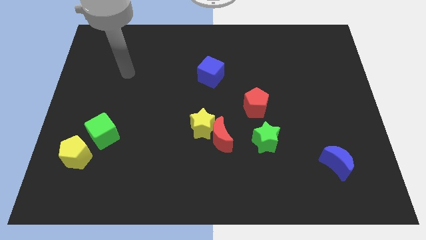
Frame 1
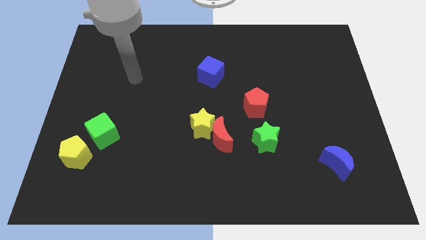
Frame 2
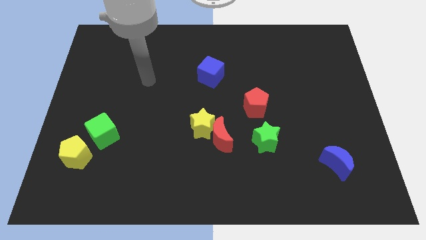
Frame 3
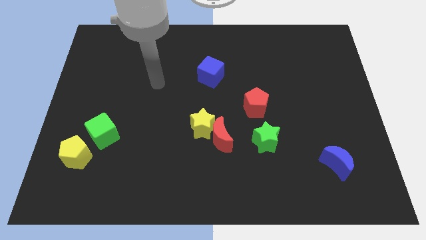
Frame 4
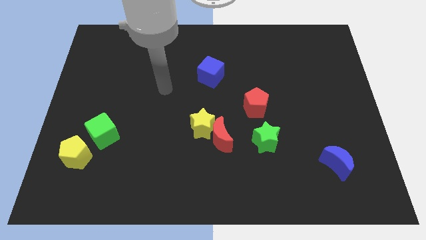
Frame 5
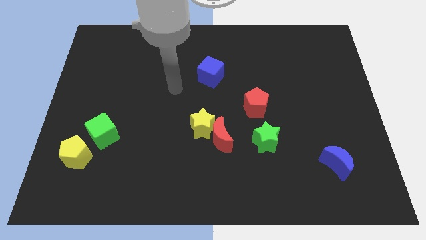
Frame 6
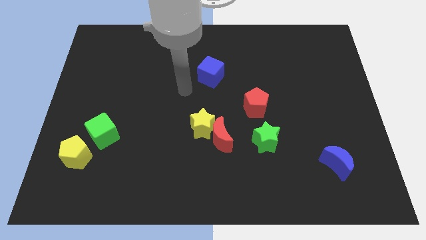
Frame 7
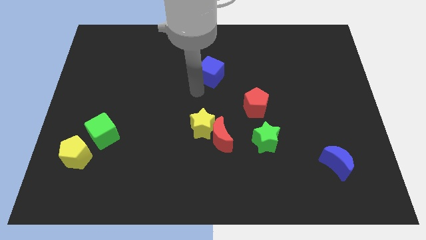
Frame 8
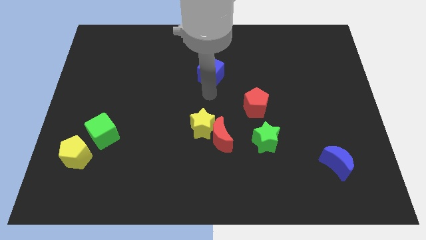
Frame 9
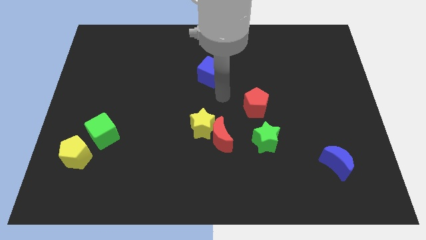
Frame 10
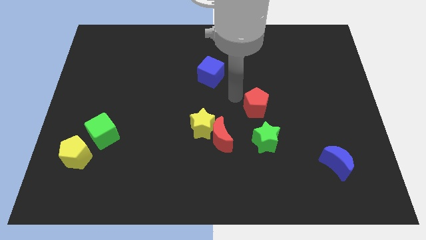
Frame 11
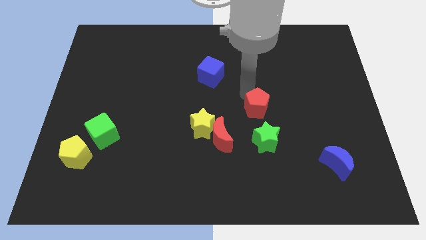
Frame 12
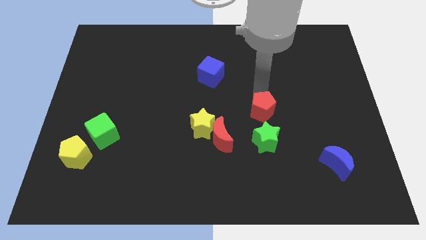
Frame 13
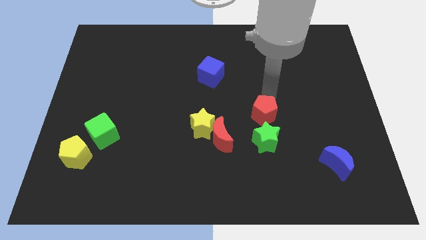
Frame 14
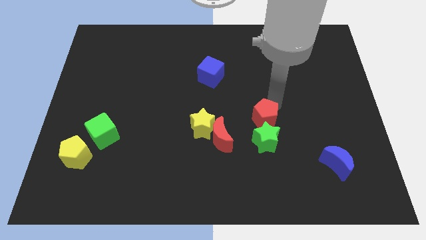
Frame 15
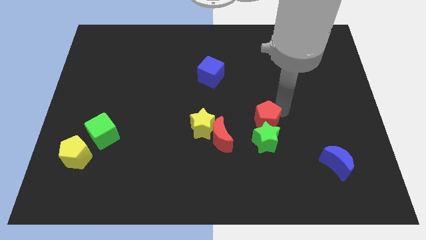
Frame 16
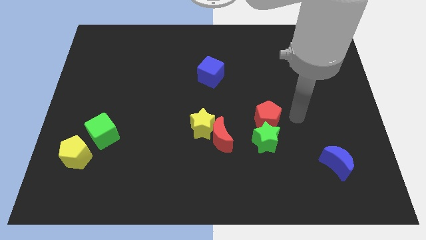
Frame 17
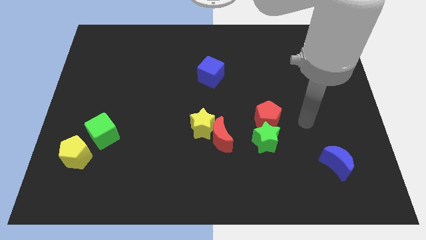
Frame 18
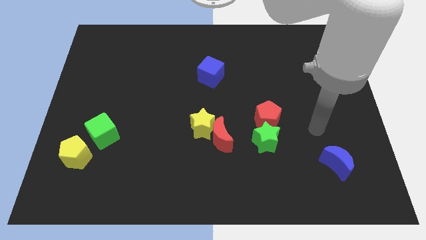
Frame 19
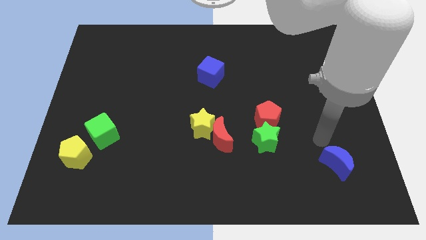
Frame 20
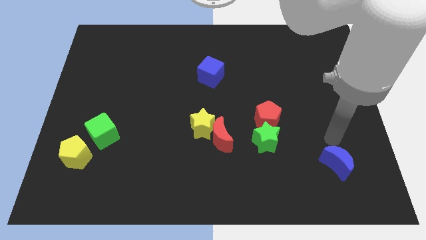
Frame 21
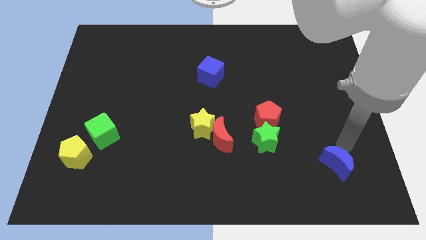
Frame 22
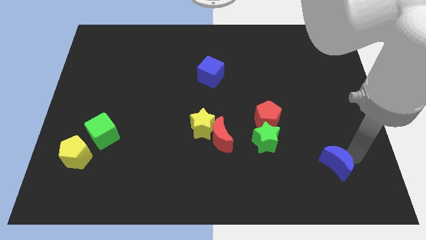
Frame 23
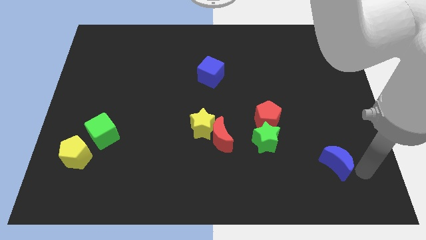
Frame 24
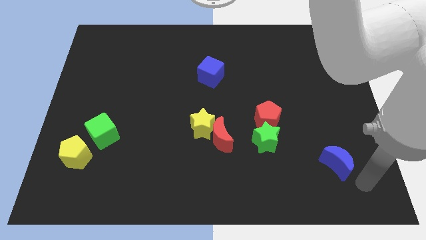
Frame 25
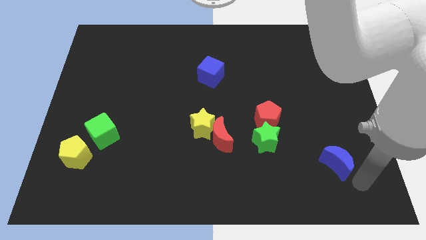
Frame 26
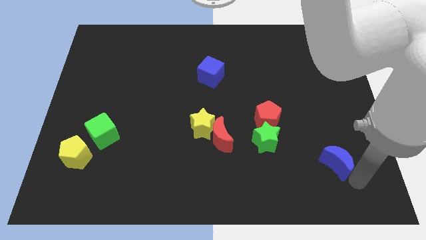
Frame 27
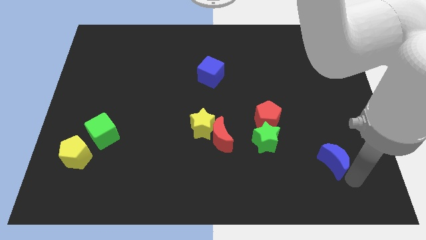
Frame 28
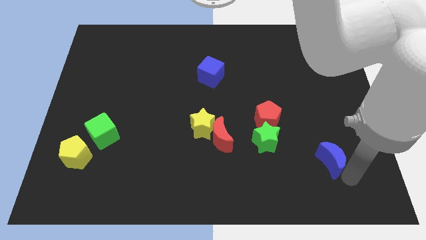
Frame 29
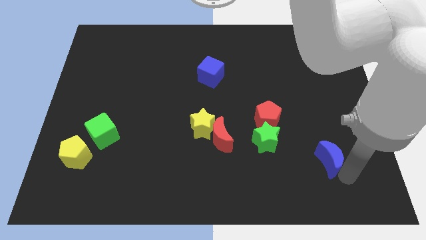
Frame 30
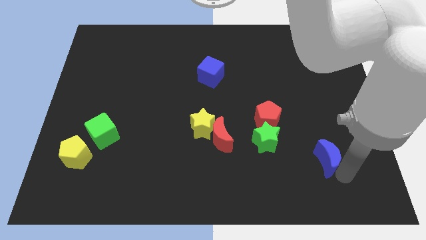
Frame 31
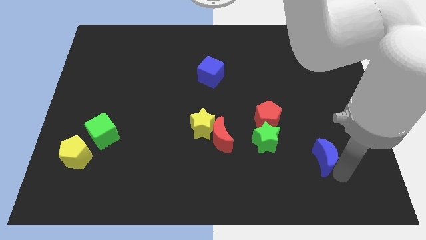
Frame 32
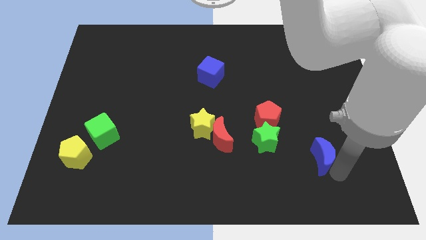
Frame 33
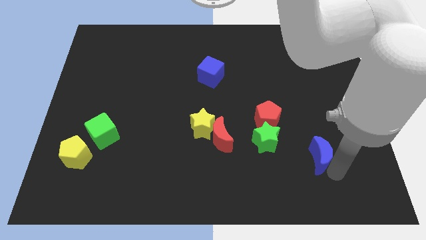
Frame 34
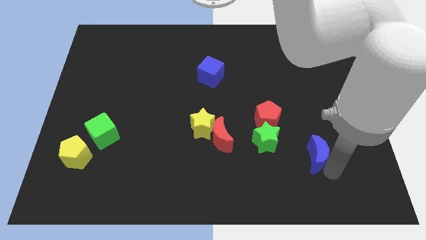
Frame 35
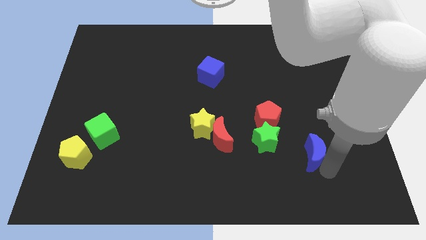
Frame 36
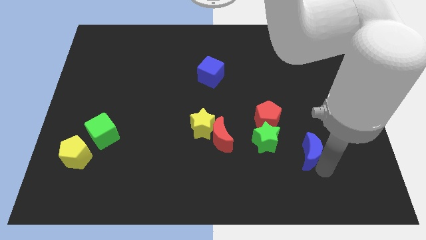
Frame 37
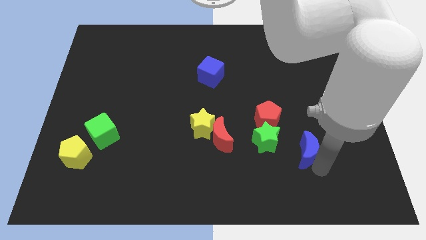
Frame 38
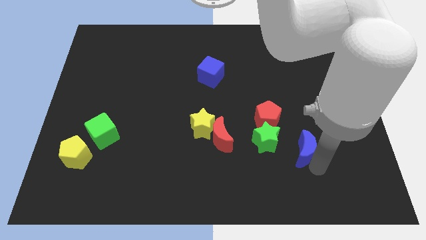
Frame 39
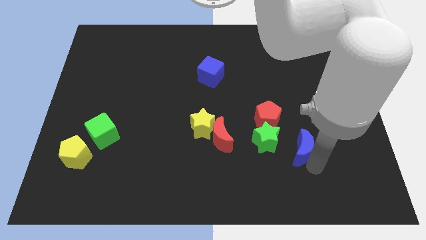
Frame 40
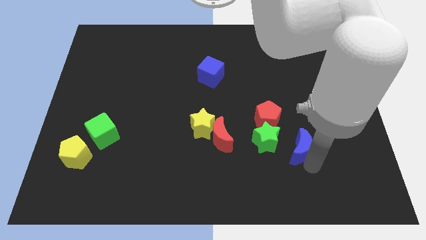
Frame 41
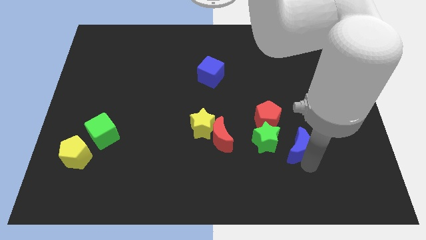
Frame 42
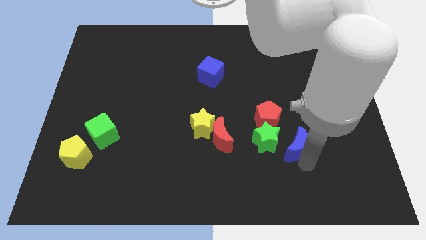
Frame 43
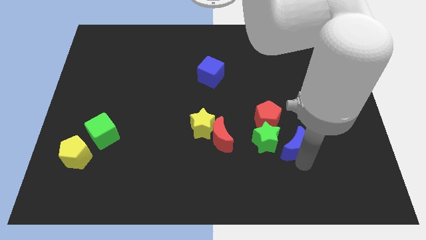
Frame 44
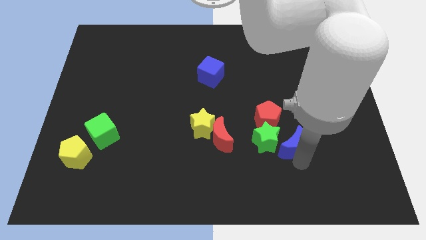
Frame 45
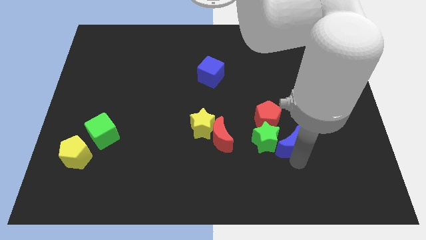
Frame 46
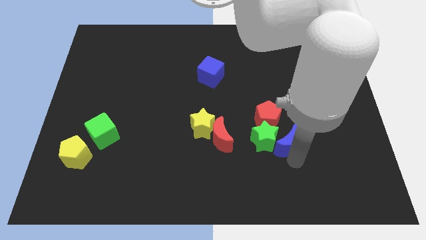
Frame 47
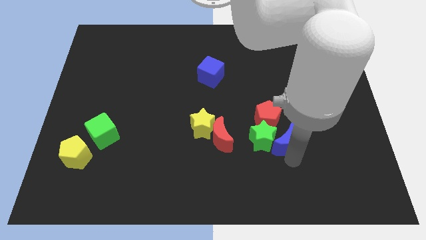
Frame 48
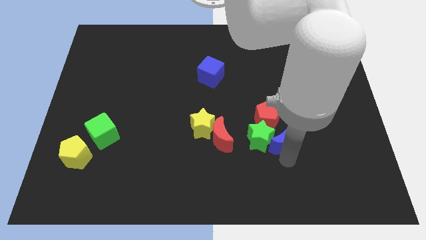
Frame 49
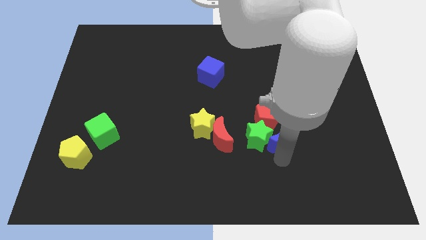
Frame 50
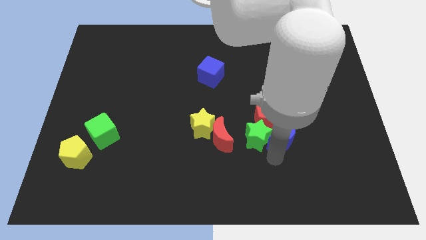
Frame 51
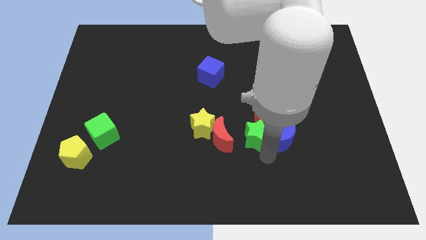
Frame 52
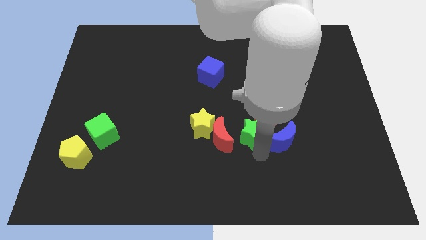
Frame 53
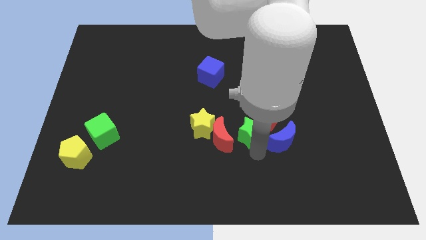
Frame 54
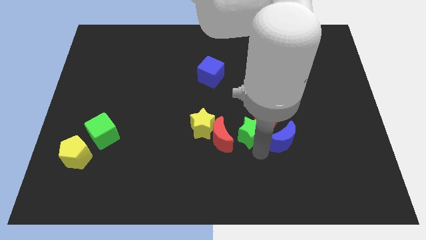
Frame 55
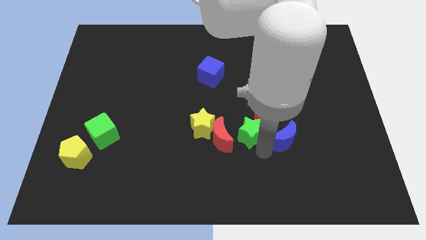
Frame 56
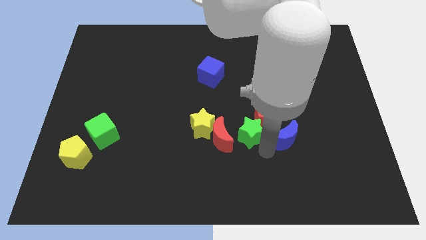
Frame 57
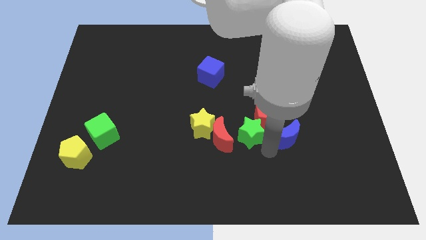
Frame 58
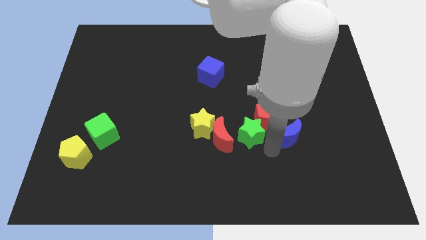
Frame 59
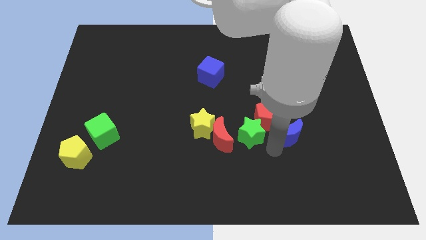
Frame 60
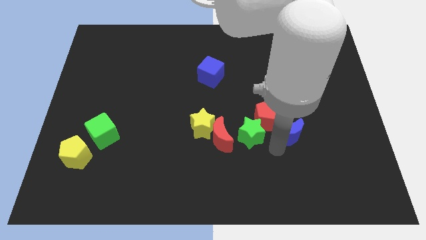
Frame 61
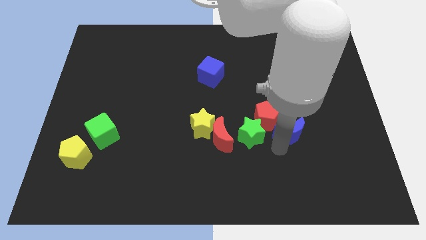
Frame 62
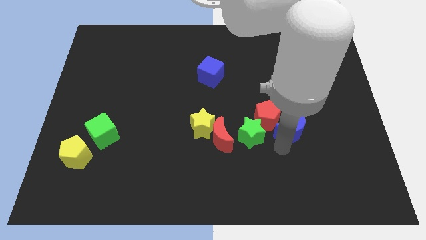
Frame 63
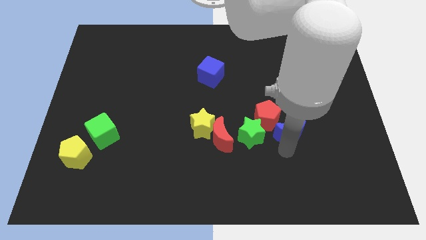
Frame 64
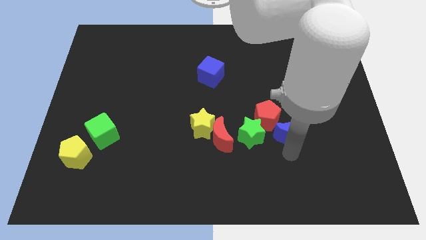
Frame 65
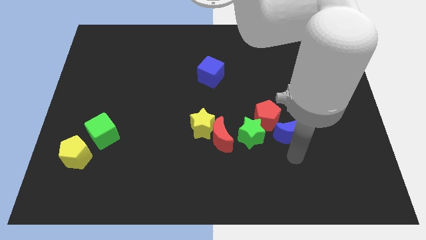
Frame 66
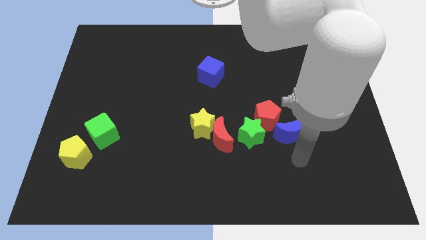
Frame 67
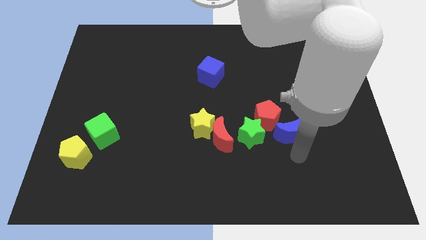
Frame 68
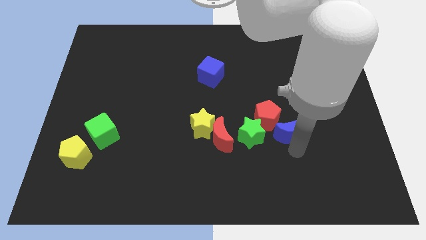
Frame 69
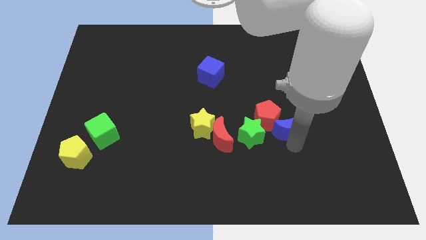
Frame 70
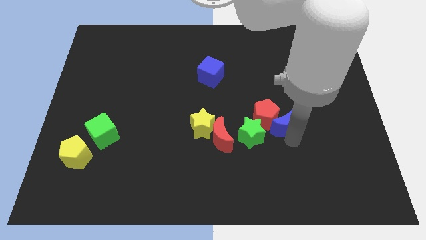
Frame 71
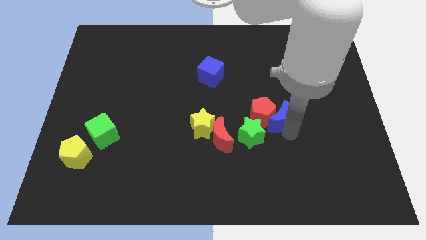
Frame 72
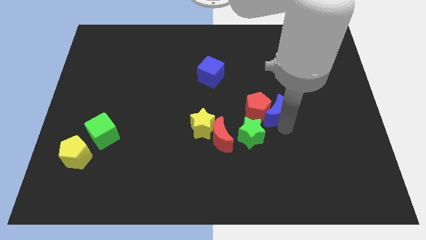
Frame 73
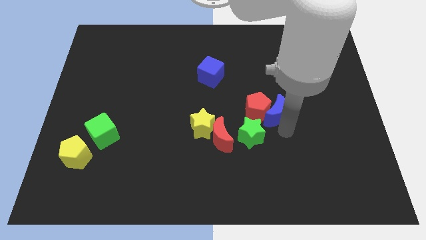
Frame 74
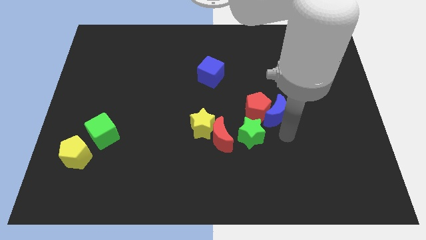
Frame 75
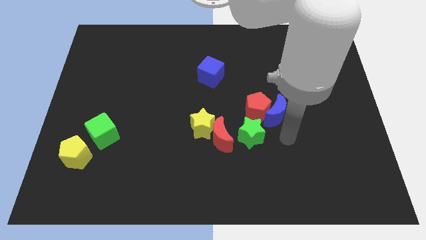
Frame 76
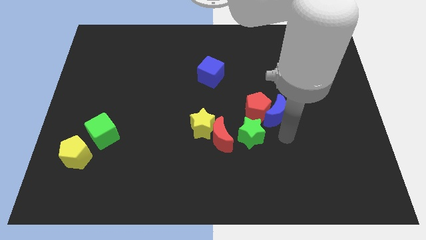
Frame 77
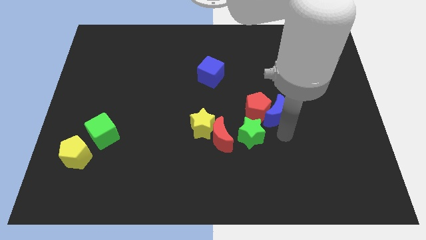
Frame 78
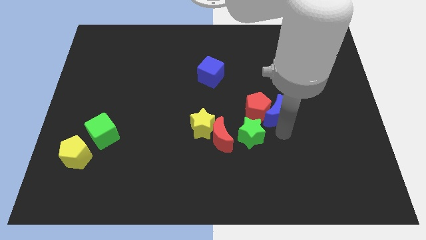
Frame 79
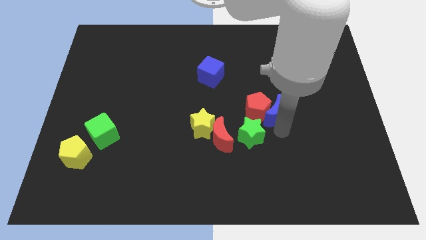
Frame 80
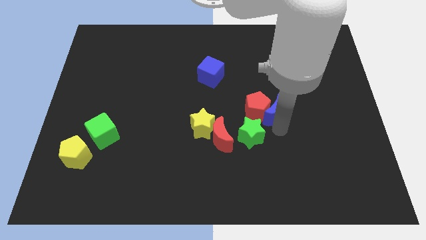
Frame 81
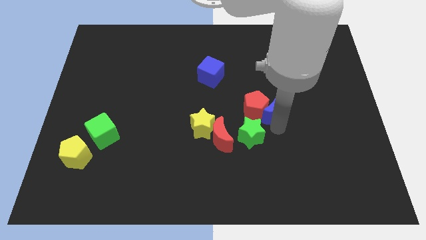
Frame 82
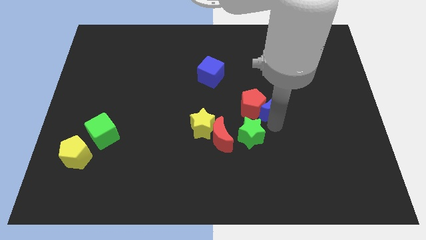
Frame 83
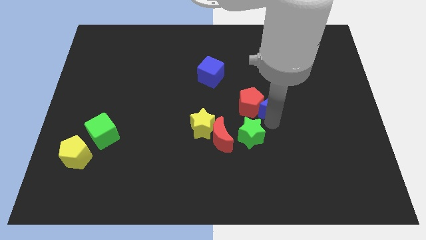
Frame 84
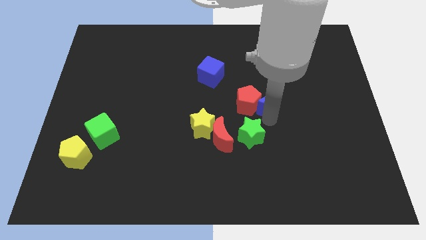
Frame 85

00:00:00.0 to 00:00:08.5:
move the blue moon upwards and then to the left
